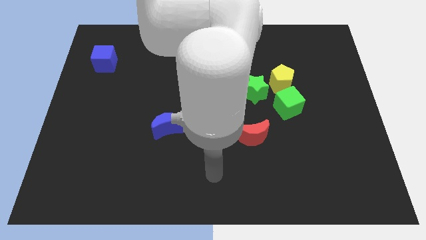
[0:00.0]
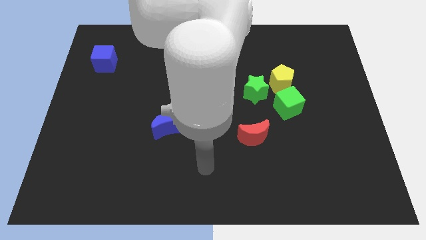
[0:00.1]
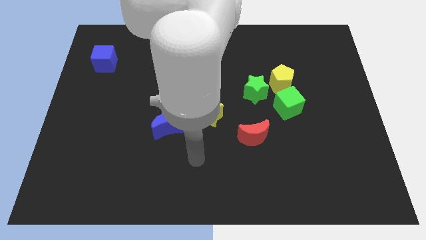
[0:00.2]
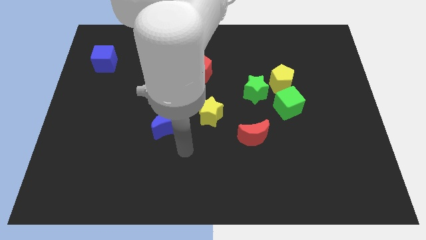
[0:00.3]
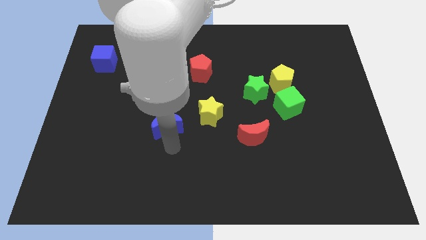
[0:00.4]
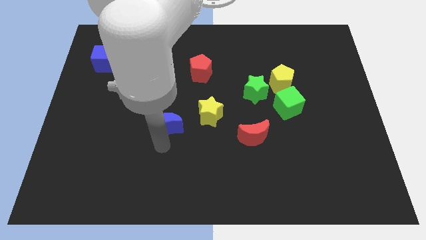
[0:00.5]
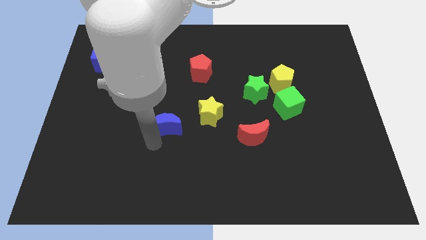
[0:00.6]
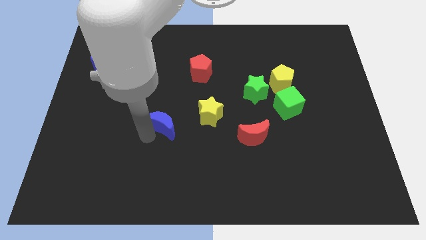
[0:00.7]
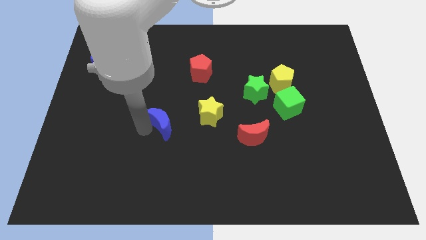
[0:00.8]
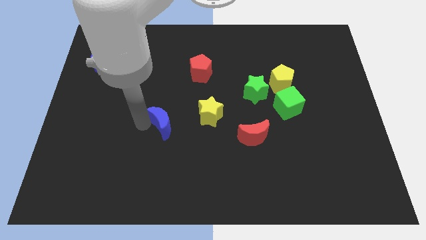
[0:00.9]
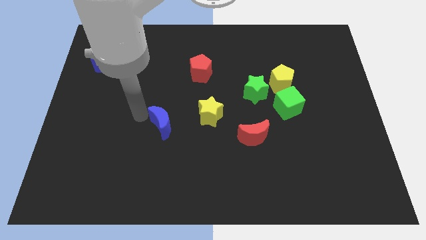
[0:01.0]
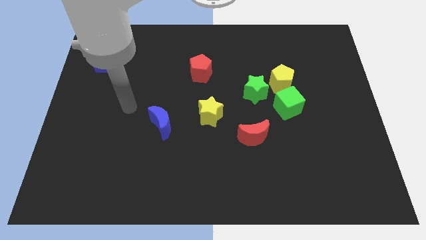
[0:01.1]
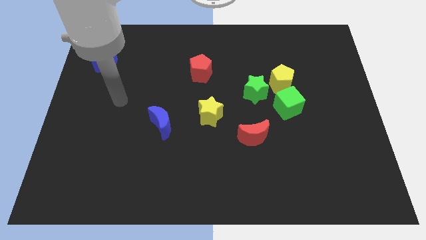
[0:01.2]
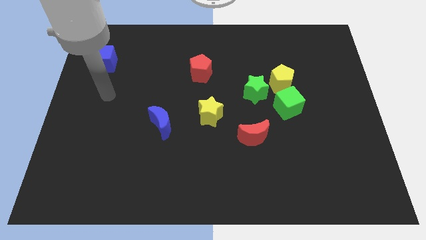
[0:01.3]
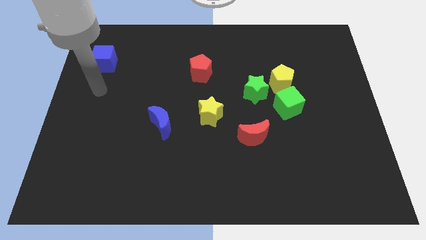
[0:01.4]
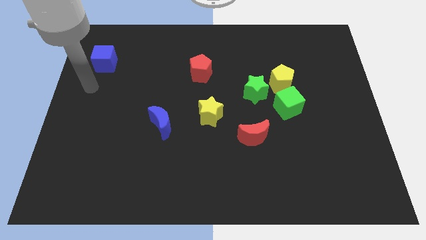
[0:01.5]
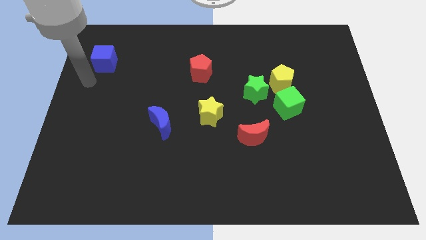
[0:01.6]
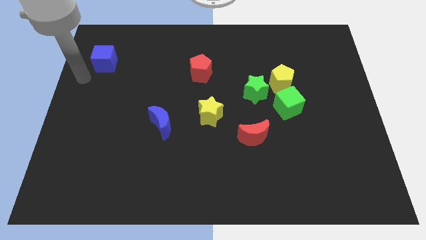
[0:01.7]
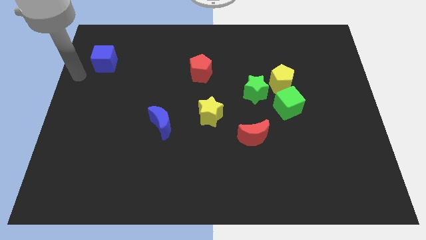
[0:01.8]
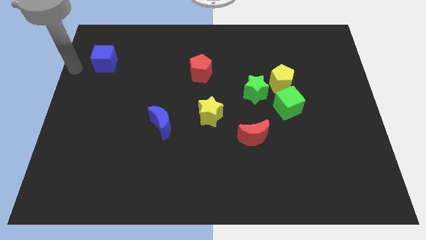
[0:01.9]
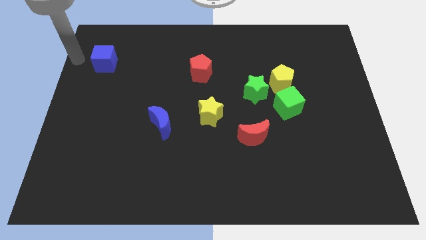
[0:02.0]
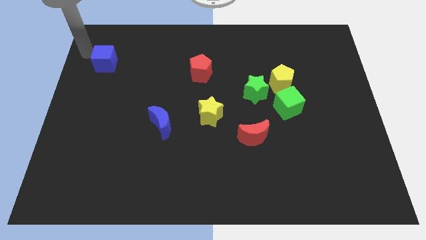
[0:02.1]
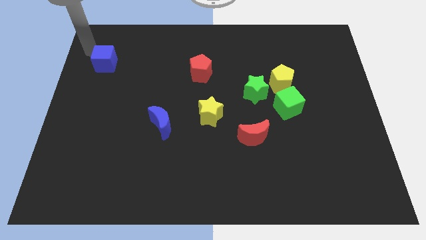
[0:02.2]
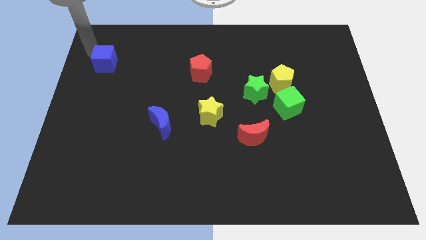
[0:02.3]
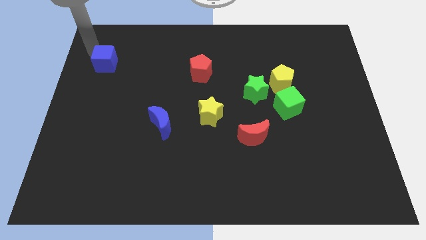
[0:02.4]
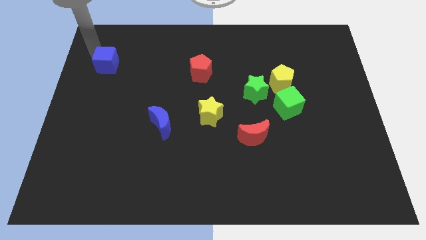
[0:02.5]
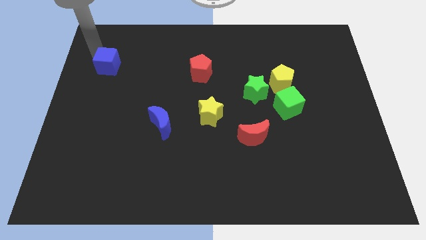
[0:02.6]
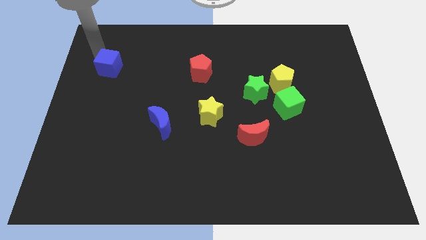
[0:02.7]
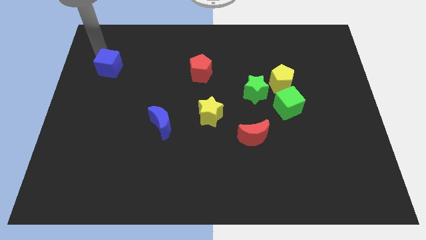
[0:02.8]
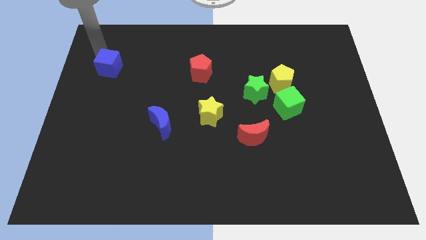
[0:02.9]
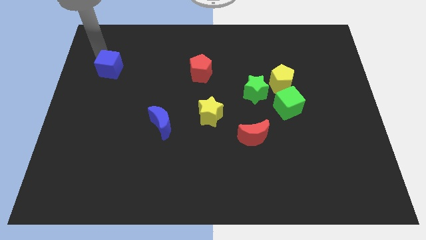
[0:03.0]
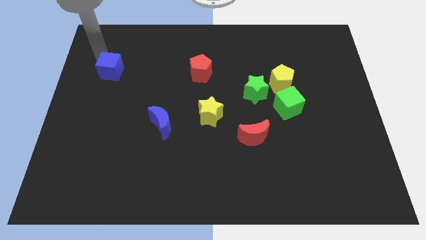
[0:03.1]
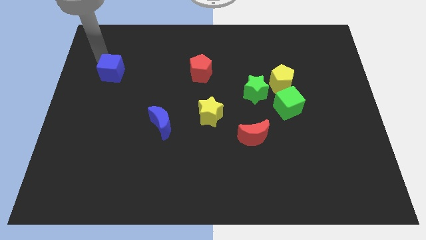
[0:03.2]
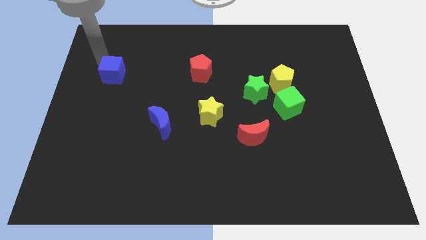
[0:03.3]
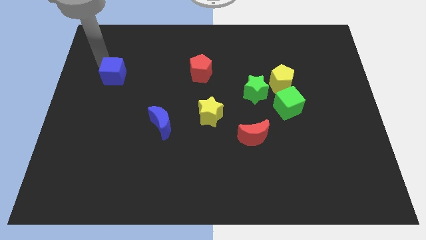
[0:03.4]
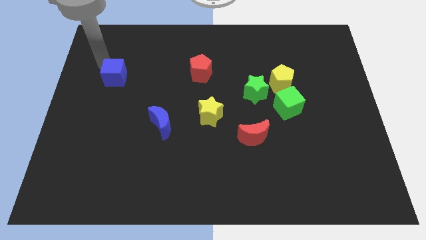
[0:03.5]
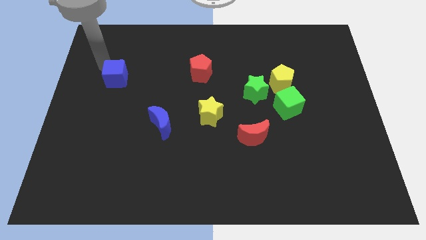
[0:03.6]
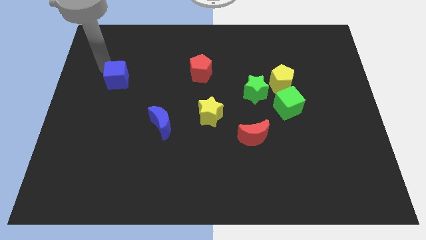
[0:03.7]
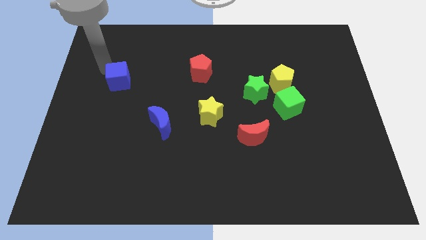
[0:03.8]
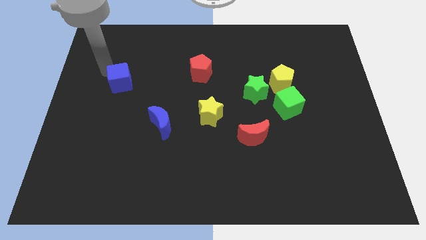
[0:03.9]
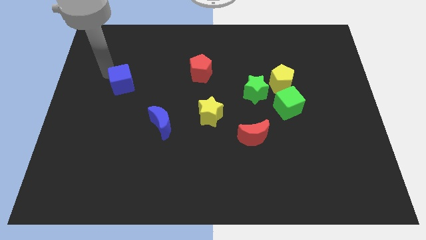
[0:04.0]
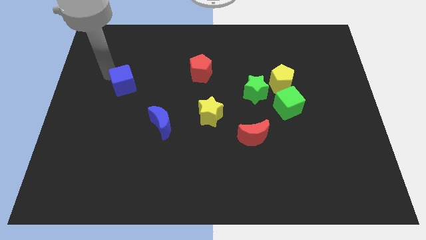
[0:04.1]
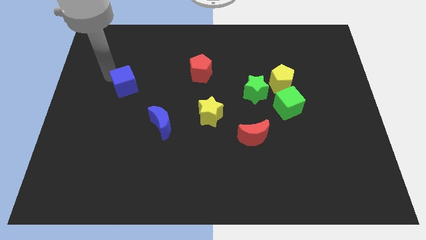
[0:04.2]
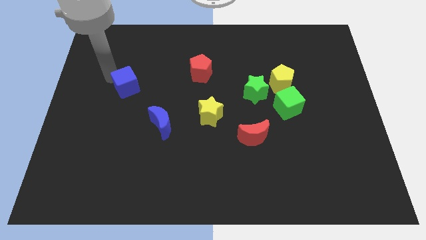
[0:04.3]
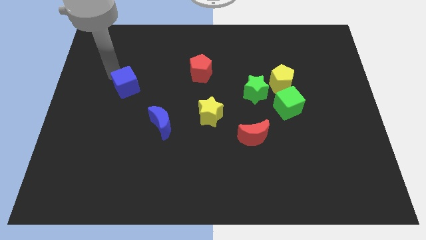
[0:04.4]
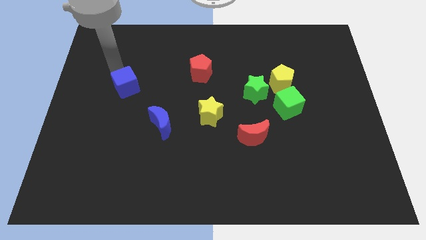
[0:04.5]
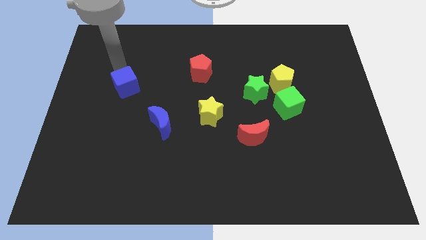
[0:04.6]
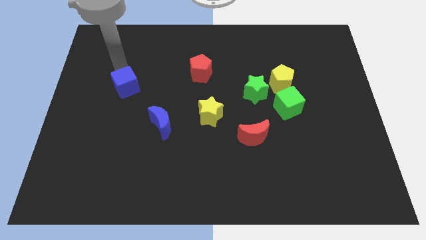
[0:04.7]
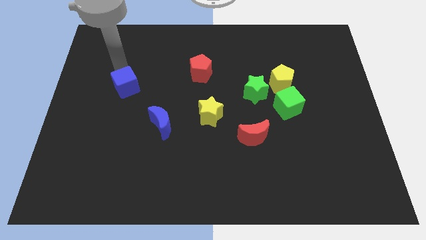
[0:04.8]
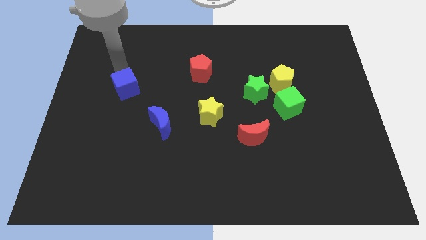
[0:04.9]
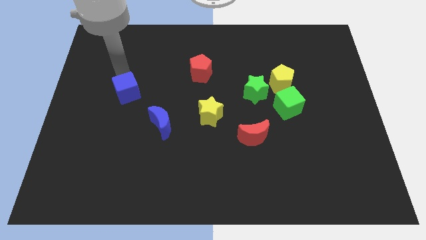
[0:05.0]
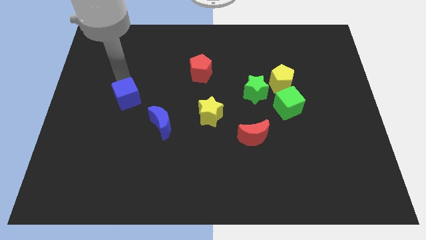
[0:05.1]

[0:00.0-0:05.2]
slide the blue cube to the top left side of the blue moon

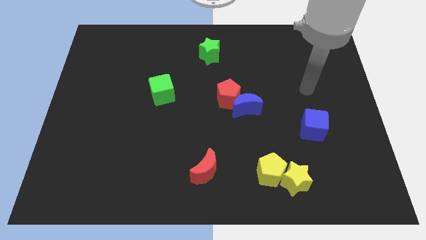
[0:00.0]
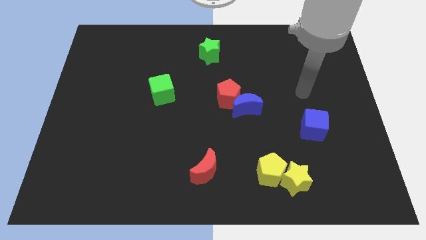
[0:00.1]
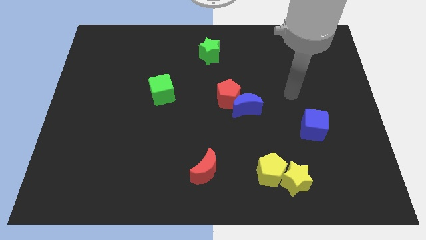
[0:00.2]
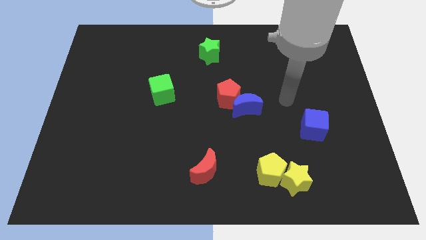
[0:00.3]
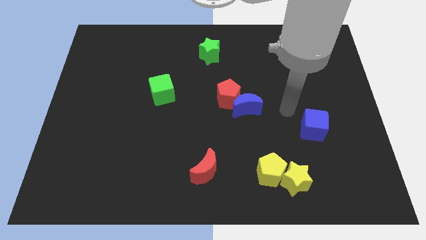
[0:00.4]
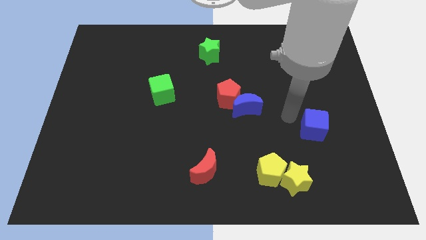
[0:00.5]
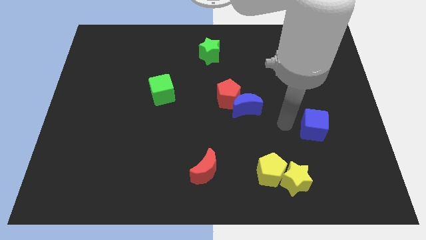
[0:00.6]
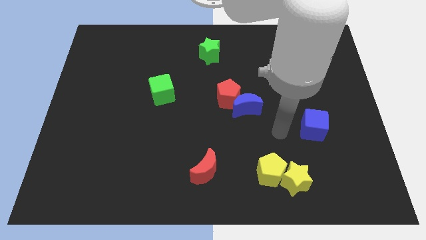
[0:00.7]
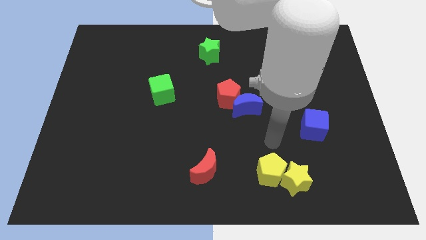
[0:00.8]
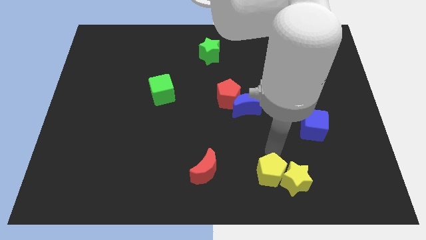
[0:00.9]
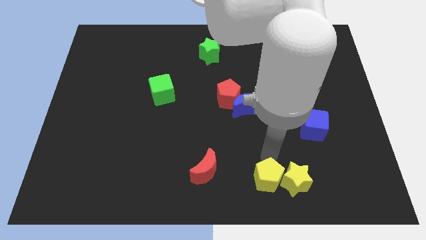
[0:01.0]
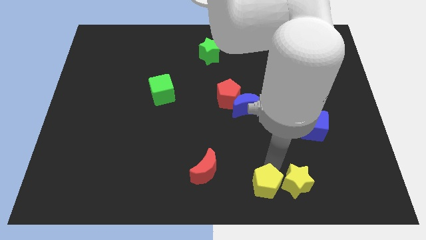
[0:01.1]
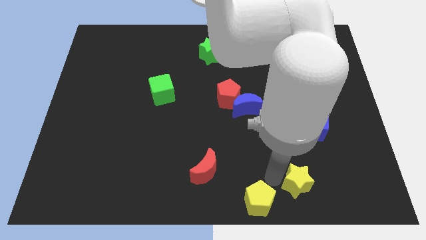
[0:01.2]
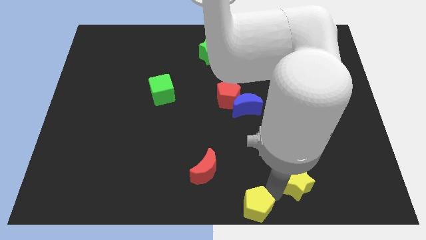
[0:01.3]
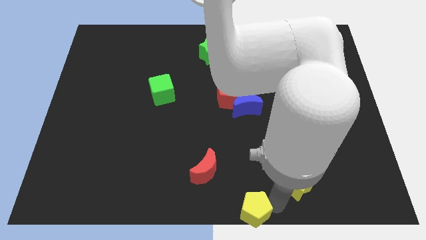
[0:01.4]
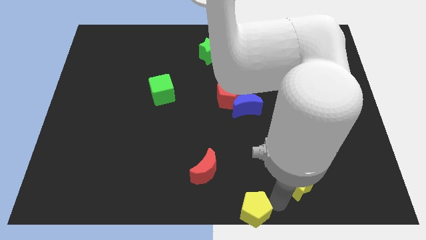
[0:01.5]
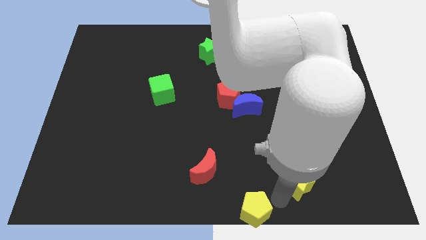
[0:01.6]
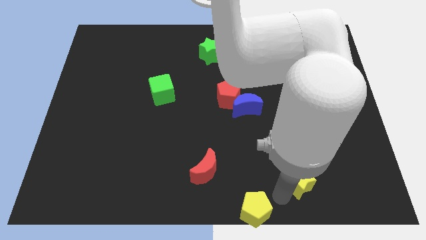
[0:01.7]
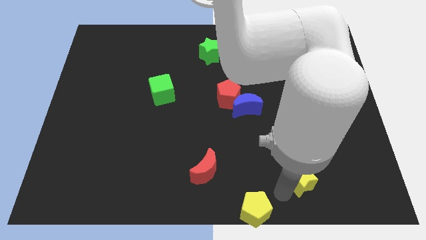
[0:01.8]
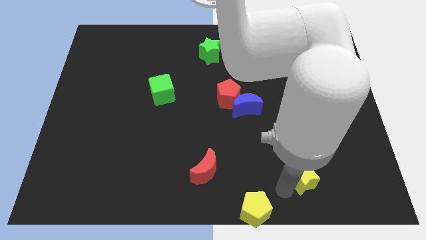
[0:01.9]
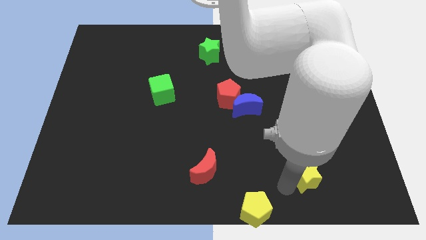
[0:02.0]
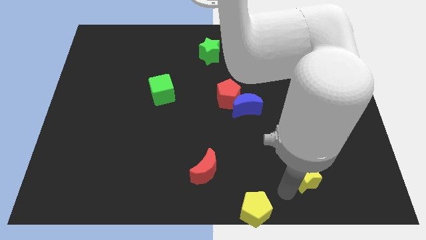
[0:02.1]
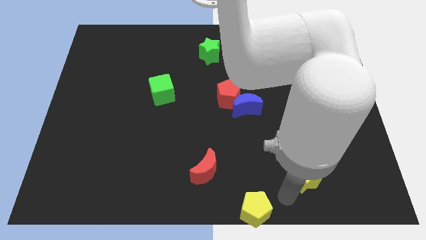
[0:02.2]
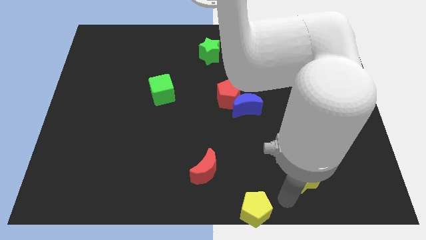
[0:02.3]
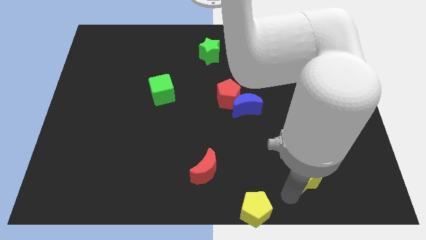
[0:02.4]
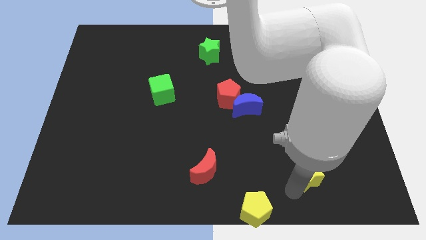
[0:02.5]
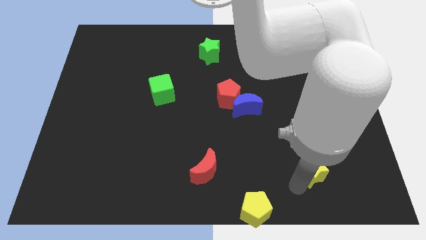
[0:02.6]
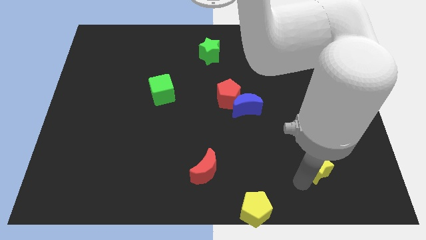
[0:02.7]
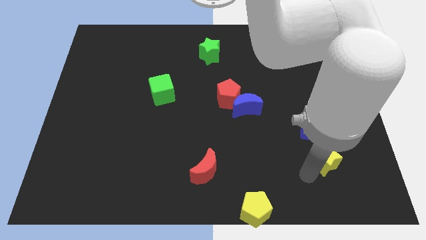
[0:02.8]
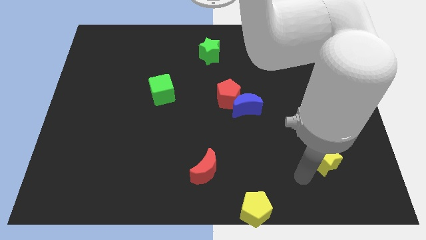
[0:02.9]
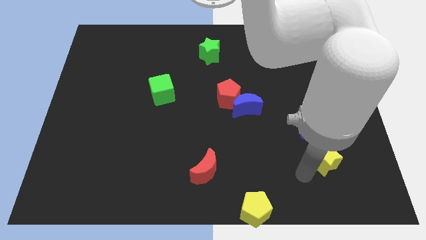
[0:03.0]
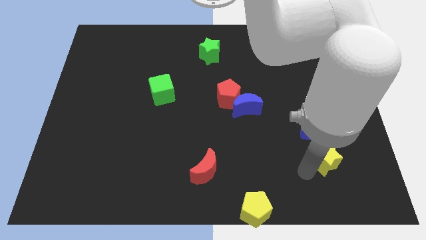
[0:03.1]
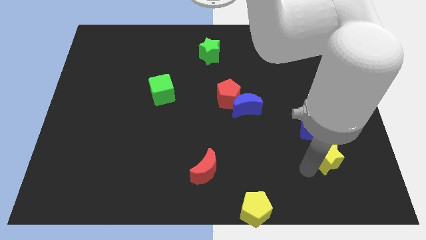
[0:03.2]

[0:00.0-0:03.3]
push the yellow star diagonally down and to the right of the blue cube
